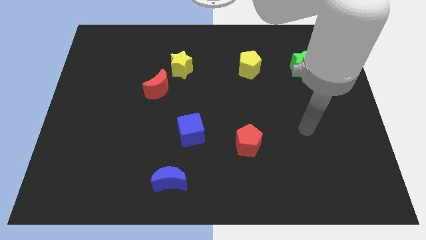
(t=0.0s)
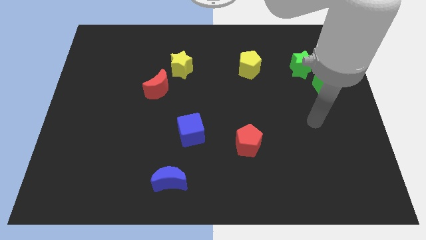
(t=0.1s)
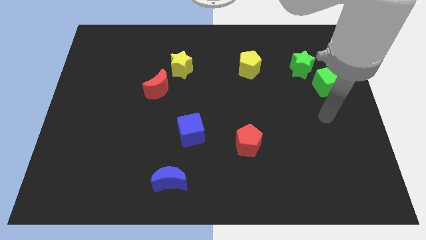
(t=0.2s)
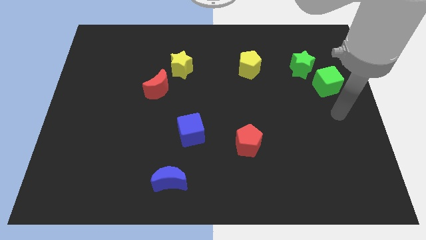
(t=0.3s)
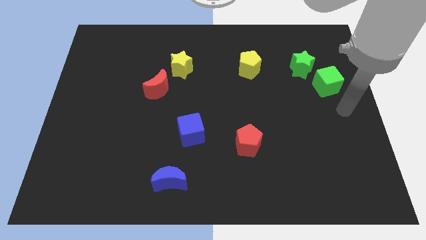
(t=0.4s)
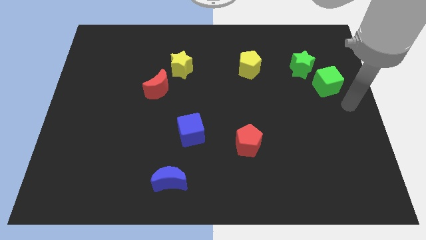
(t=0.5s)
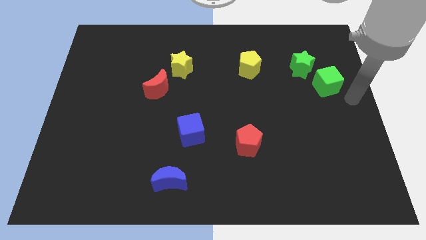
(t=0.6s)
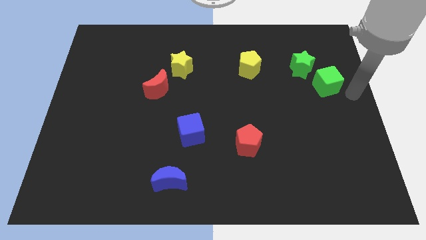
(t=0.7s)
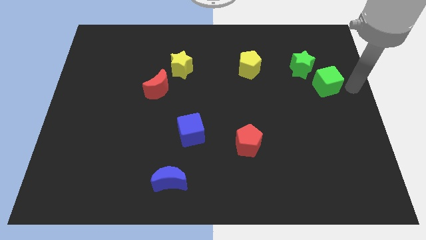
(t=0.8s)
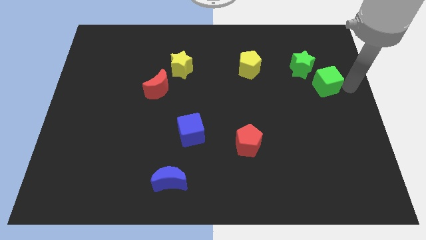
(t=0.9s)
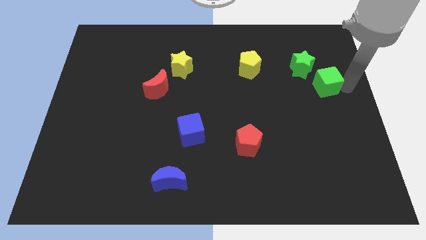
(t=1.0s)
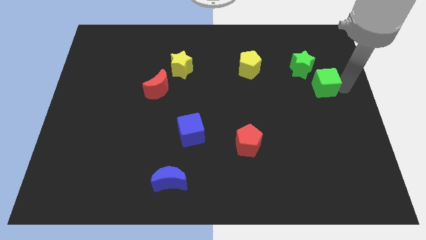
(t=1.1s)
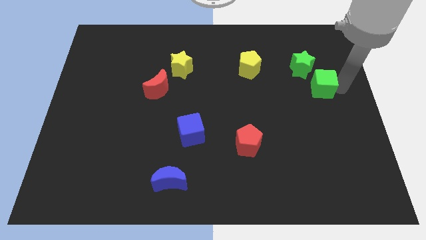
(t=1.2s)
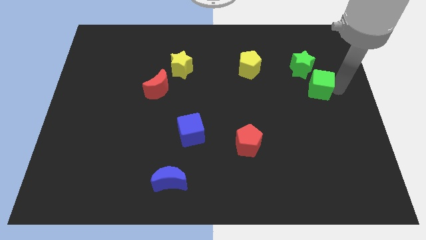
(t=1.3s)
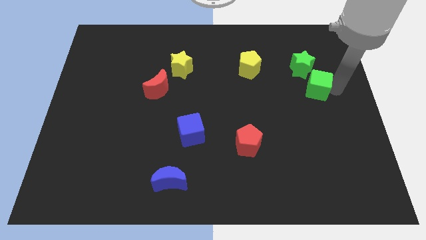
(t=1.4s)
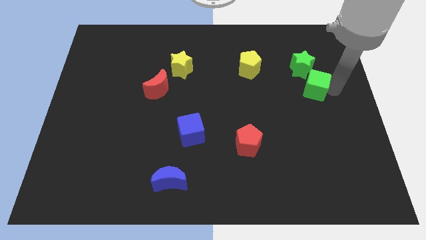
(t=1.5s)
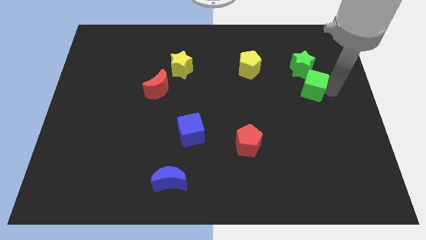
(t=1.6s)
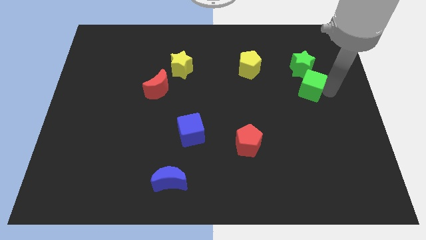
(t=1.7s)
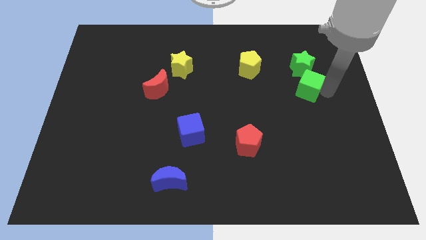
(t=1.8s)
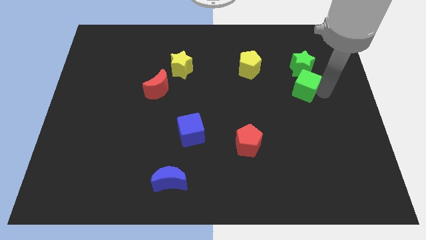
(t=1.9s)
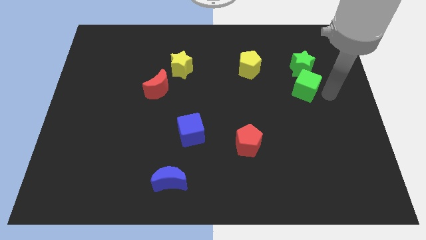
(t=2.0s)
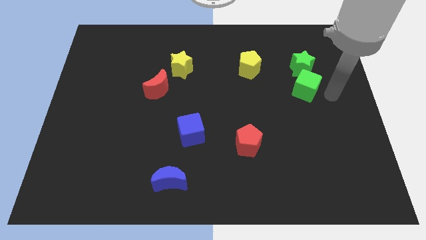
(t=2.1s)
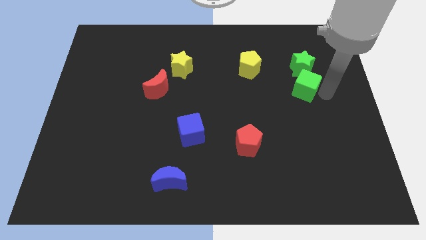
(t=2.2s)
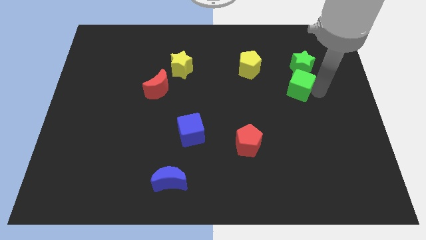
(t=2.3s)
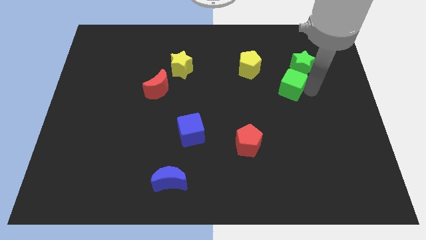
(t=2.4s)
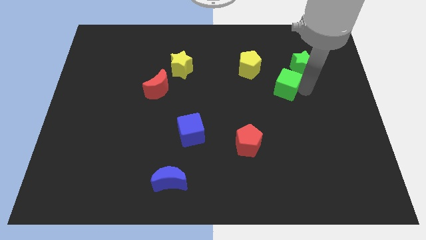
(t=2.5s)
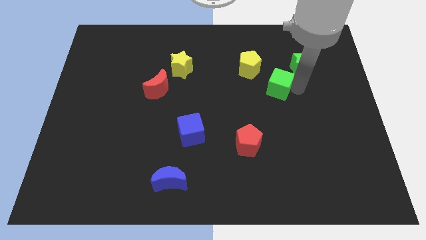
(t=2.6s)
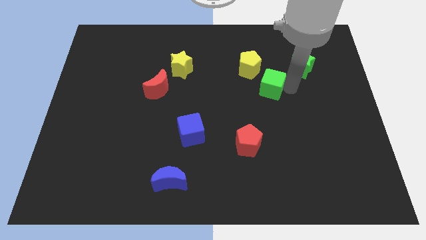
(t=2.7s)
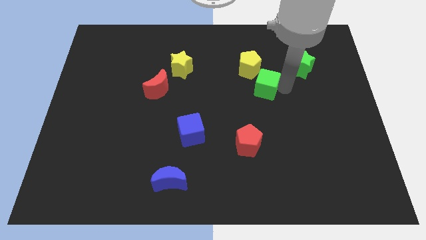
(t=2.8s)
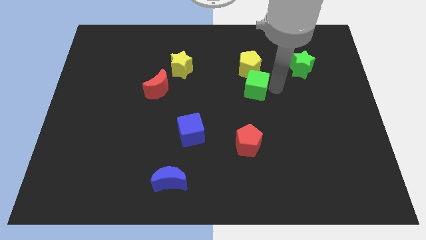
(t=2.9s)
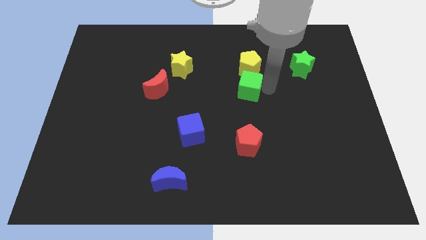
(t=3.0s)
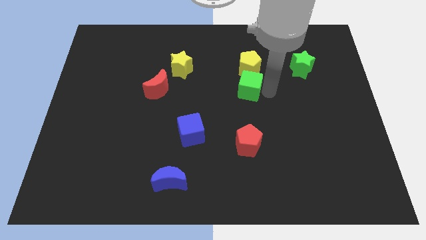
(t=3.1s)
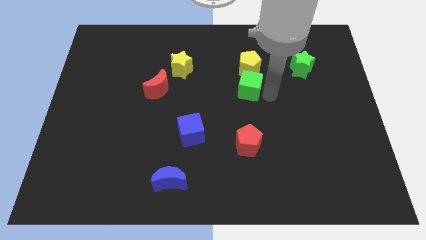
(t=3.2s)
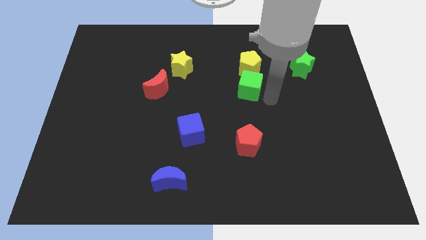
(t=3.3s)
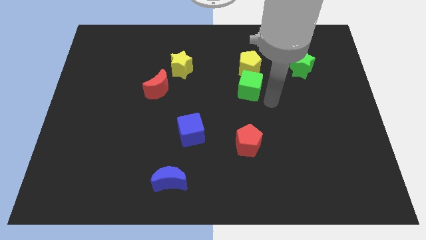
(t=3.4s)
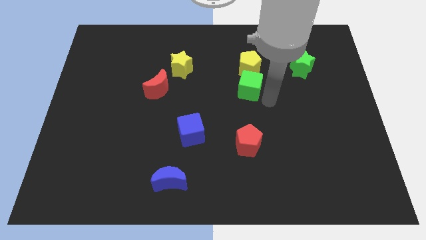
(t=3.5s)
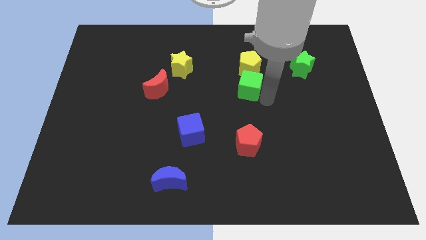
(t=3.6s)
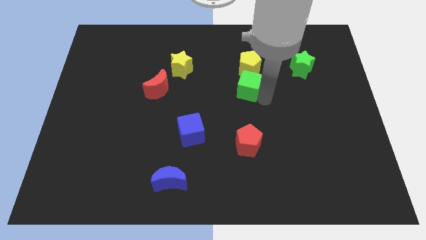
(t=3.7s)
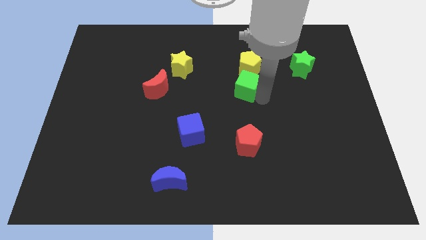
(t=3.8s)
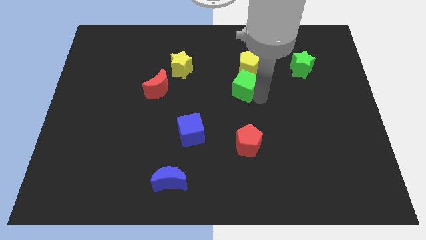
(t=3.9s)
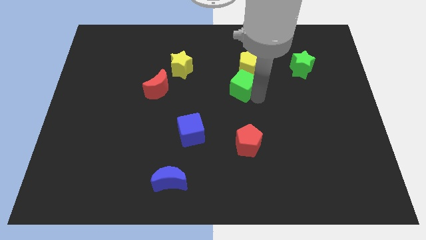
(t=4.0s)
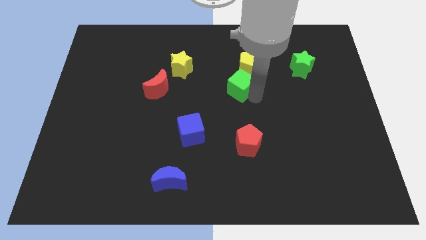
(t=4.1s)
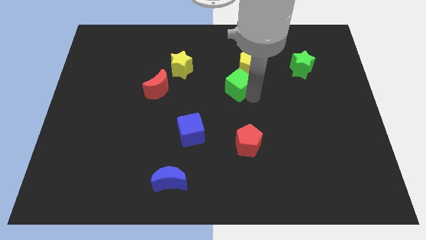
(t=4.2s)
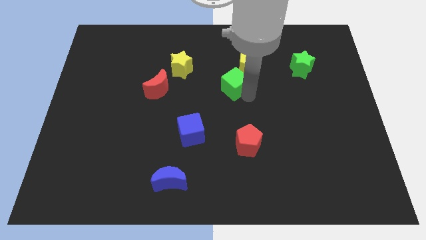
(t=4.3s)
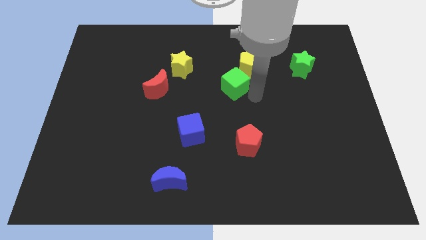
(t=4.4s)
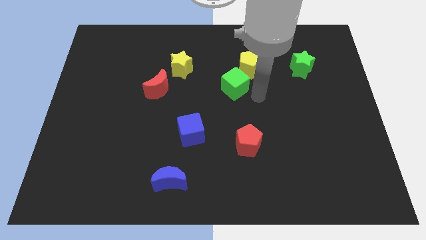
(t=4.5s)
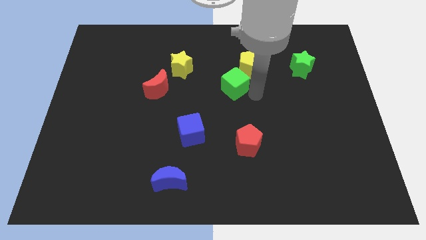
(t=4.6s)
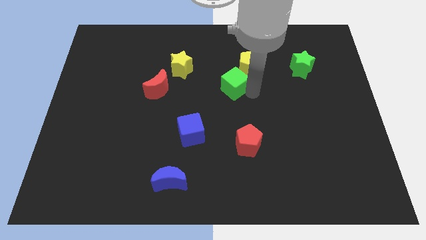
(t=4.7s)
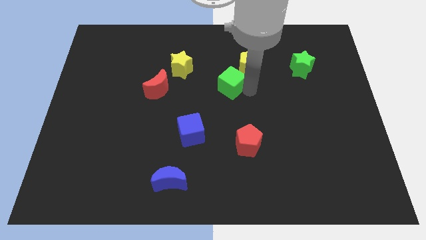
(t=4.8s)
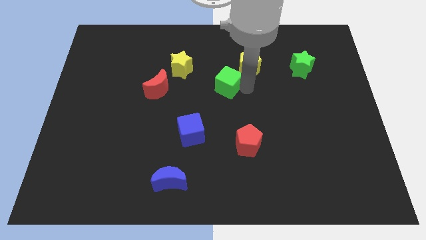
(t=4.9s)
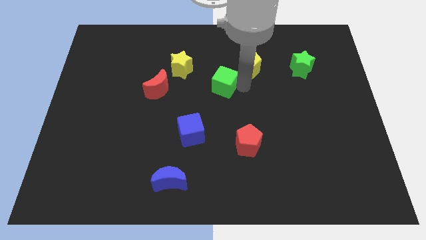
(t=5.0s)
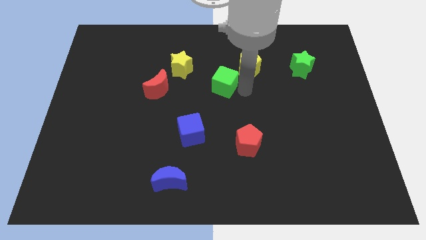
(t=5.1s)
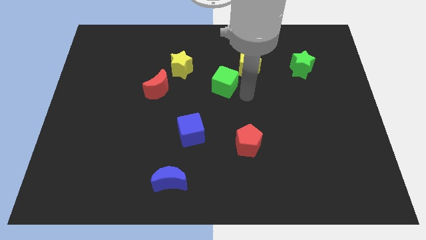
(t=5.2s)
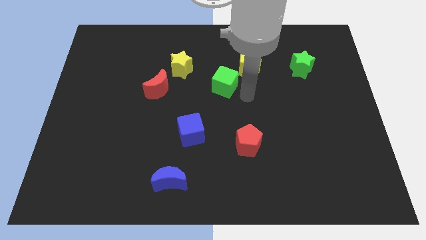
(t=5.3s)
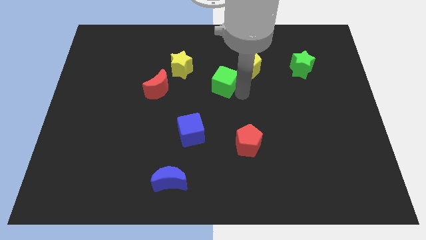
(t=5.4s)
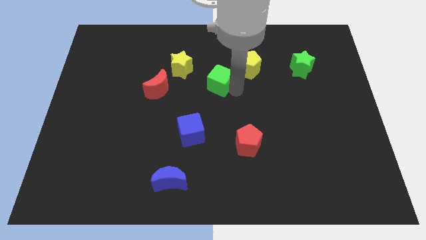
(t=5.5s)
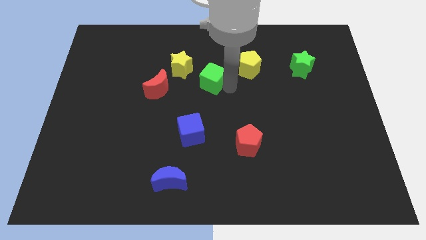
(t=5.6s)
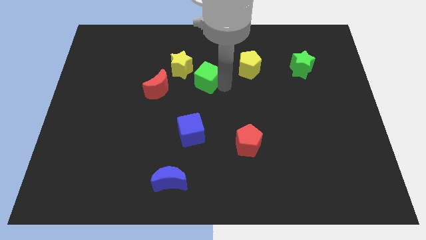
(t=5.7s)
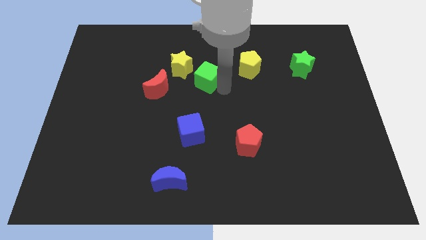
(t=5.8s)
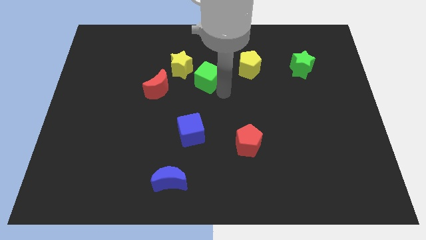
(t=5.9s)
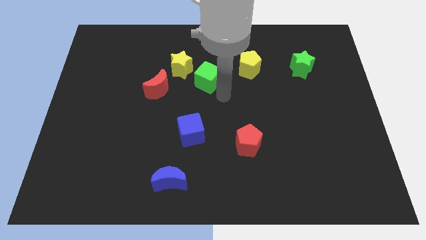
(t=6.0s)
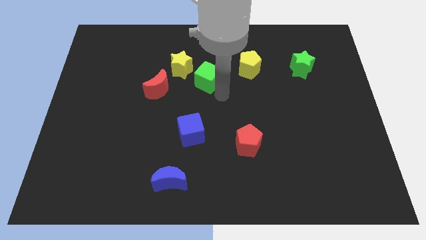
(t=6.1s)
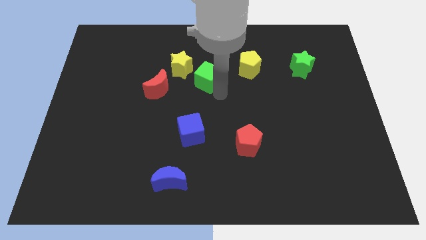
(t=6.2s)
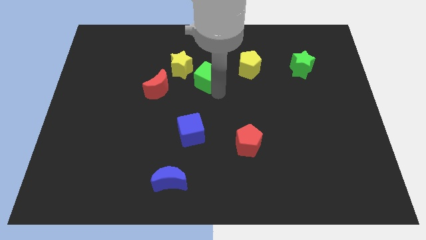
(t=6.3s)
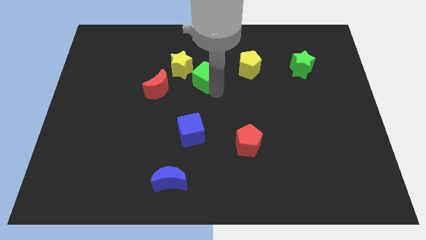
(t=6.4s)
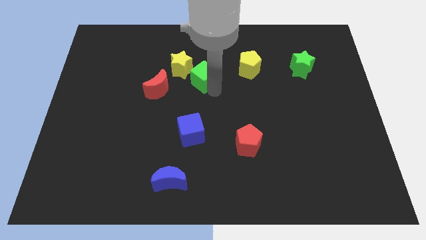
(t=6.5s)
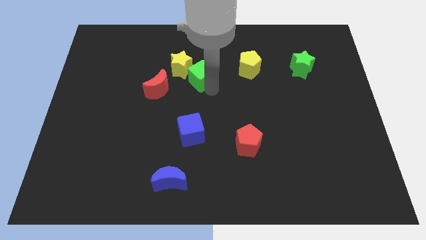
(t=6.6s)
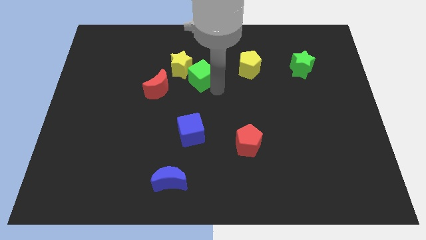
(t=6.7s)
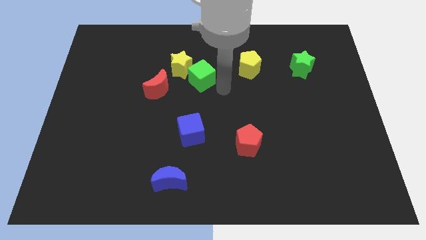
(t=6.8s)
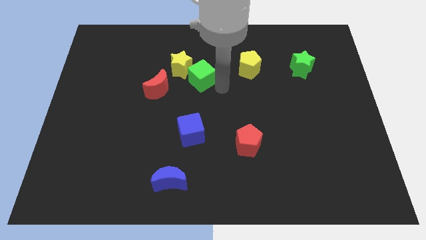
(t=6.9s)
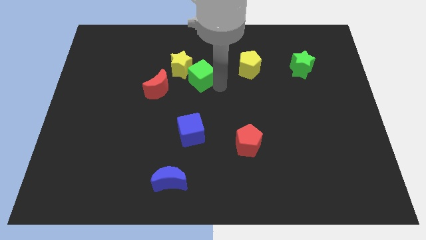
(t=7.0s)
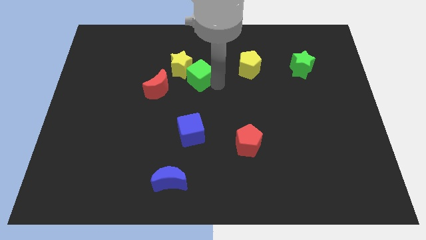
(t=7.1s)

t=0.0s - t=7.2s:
put the green cube towards the yellow star

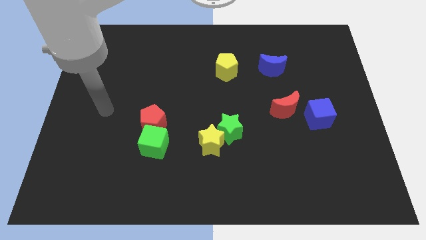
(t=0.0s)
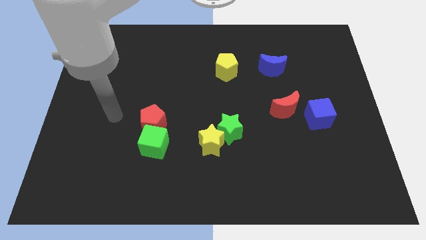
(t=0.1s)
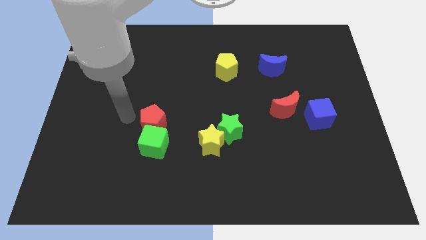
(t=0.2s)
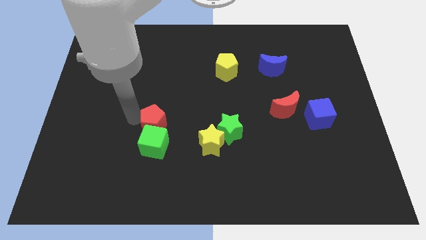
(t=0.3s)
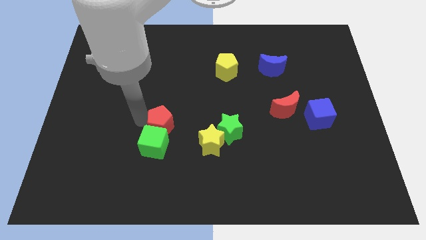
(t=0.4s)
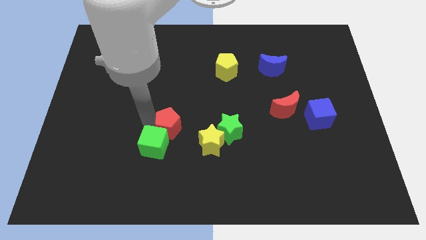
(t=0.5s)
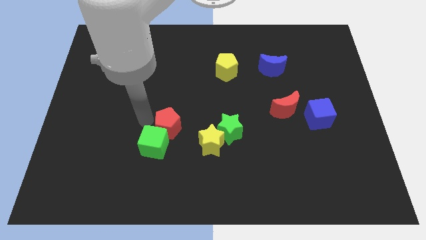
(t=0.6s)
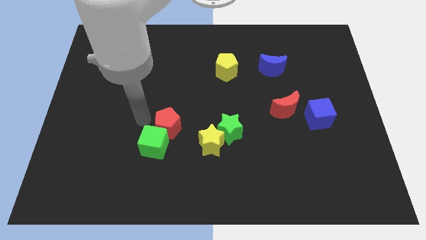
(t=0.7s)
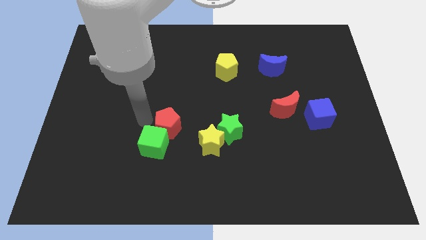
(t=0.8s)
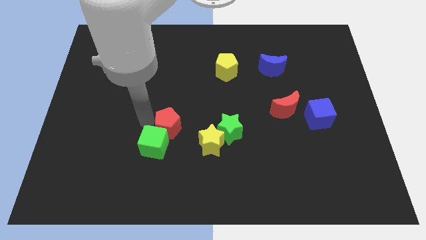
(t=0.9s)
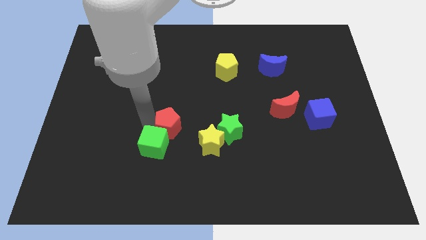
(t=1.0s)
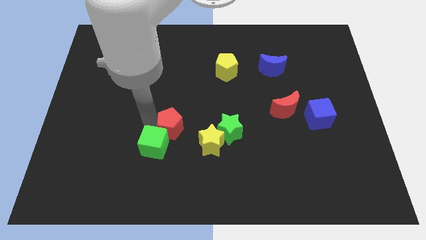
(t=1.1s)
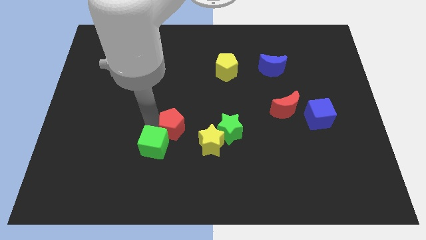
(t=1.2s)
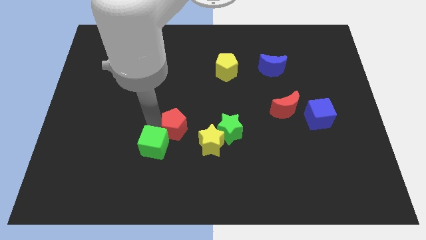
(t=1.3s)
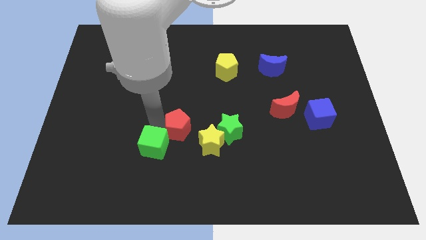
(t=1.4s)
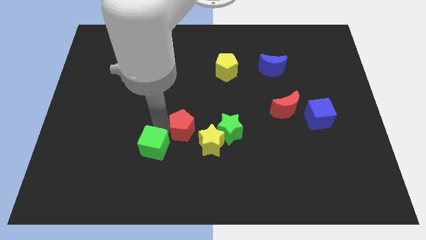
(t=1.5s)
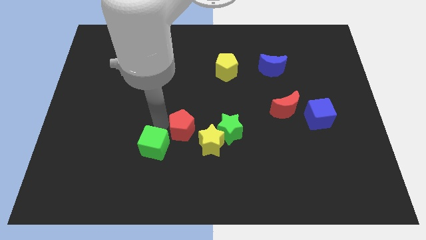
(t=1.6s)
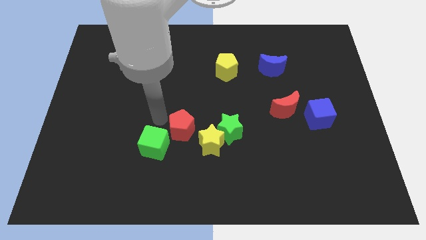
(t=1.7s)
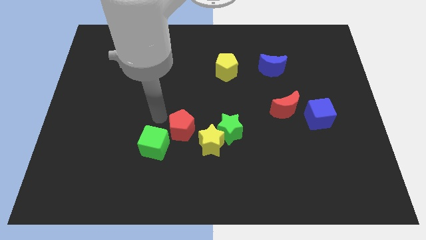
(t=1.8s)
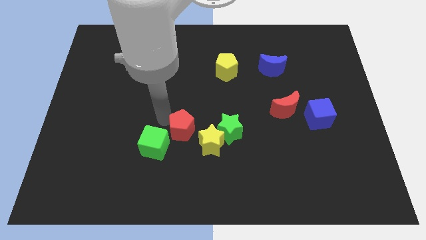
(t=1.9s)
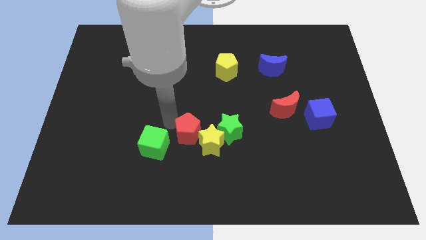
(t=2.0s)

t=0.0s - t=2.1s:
slide the red pentagon close to the yellow star
